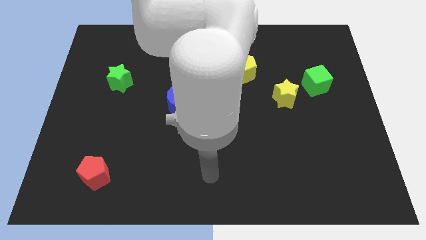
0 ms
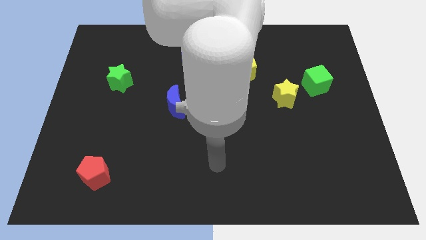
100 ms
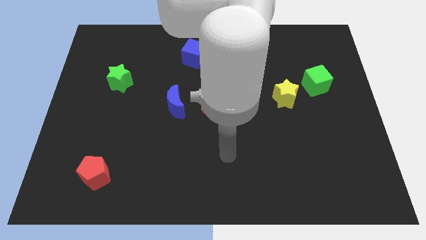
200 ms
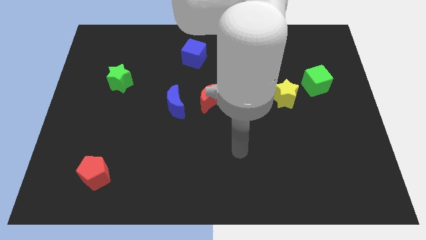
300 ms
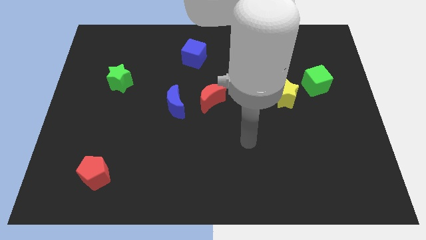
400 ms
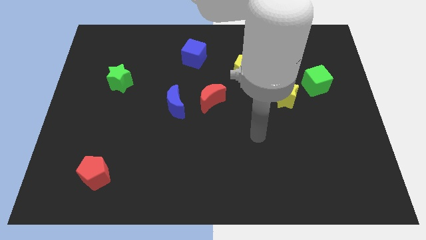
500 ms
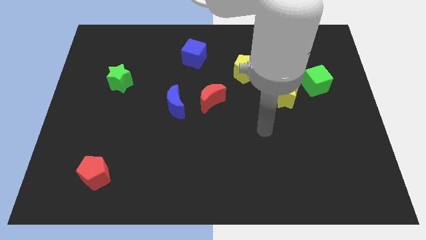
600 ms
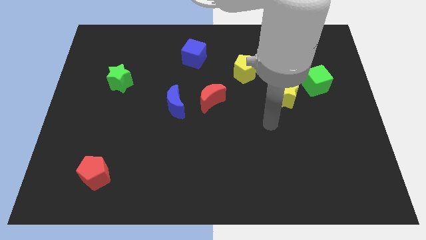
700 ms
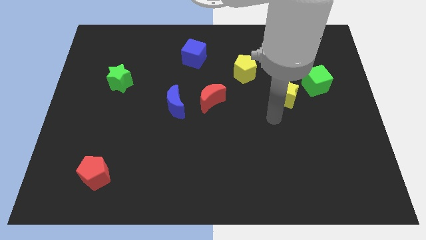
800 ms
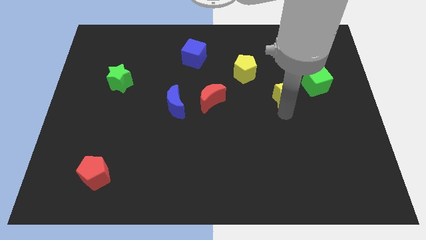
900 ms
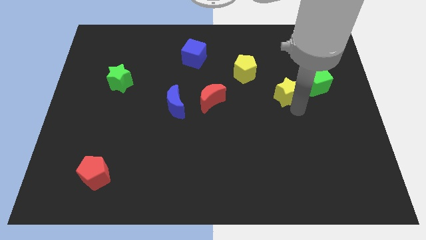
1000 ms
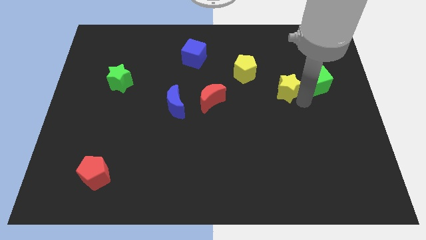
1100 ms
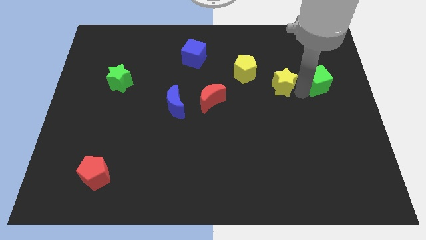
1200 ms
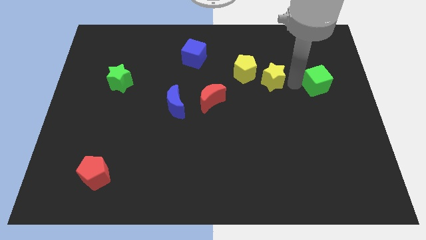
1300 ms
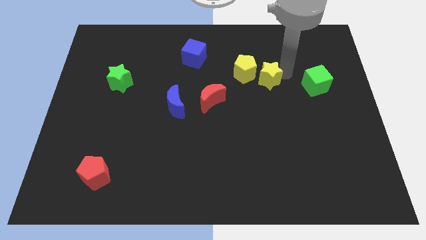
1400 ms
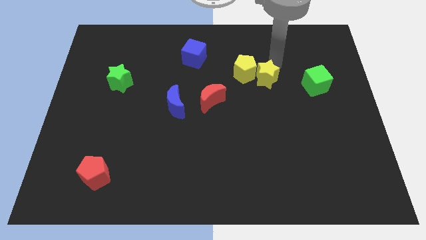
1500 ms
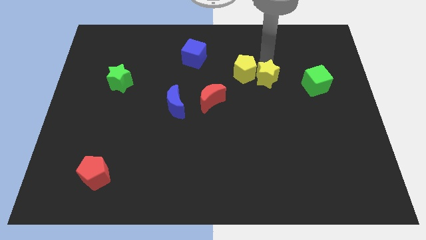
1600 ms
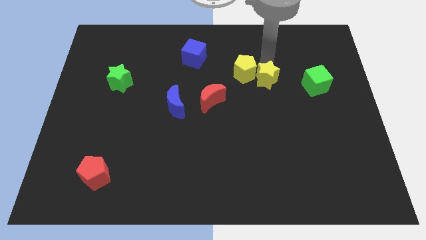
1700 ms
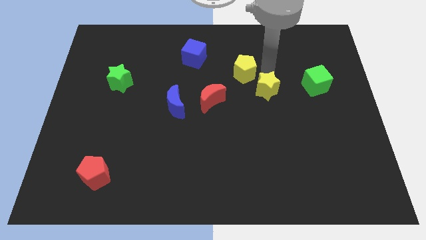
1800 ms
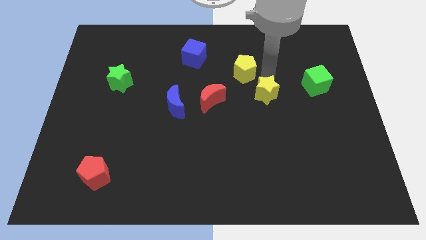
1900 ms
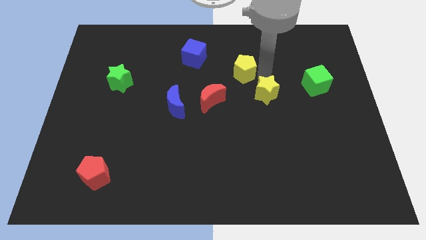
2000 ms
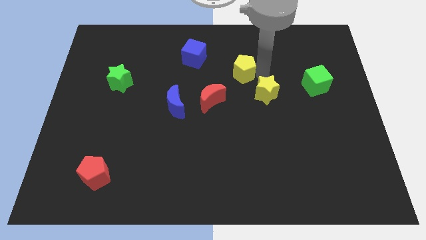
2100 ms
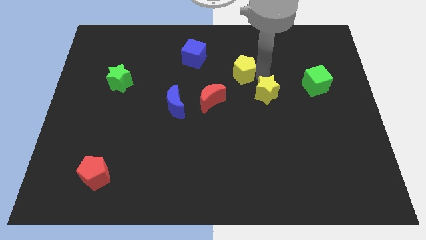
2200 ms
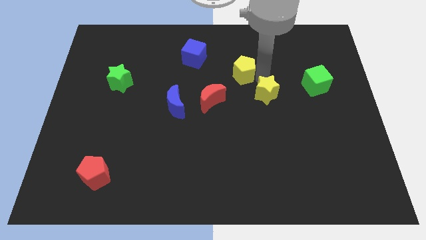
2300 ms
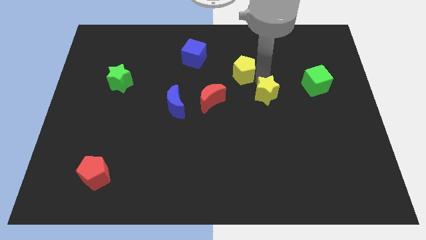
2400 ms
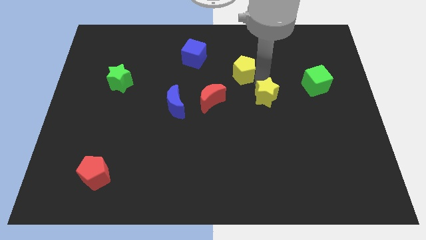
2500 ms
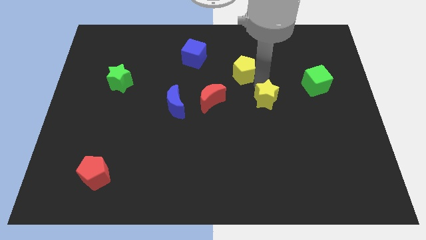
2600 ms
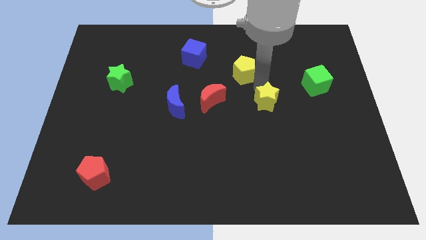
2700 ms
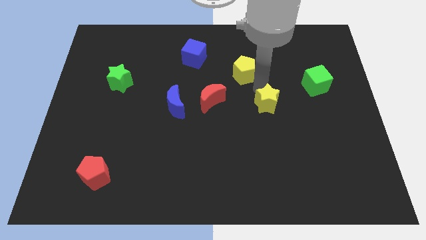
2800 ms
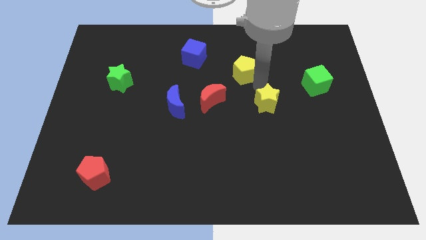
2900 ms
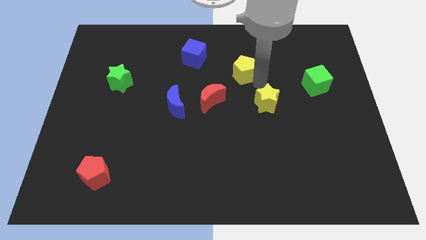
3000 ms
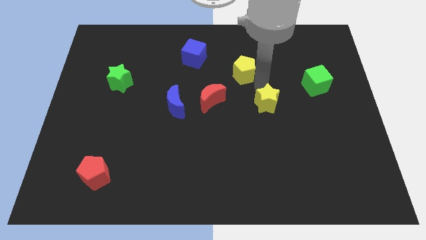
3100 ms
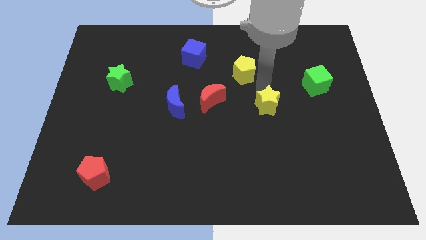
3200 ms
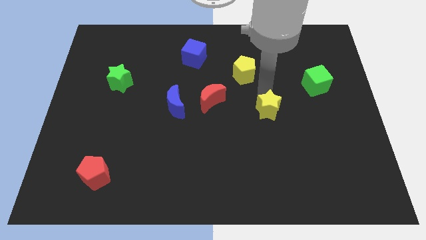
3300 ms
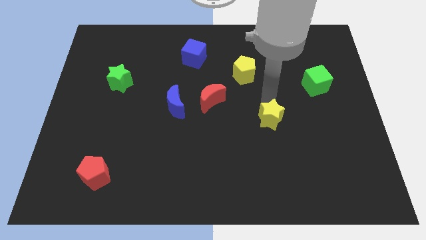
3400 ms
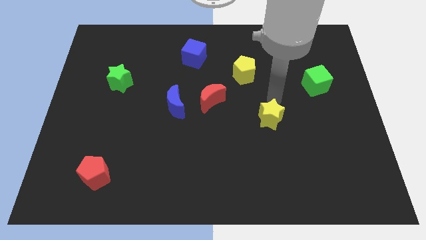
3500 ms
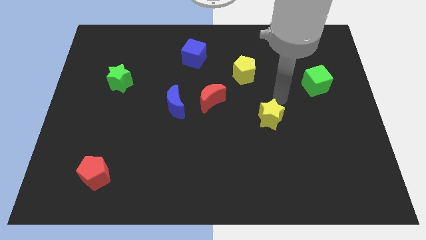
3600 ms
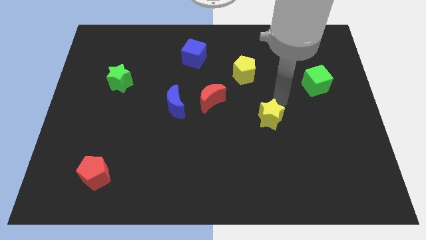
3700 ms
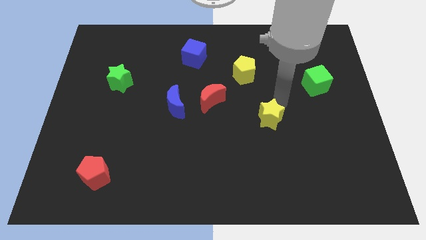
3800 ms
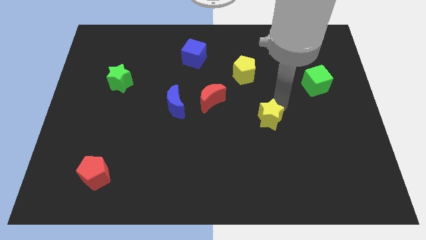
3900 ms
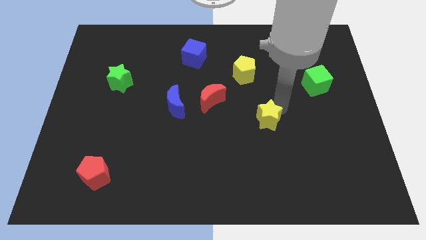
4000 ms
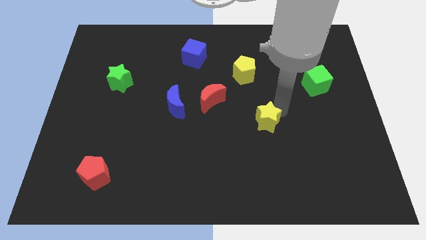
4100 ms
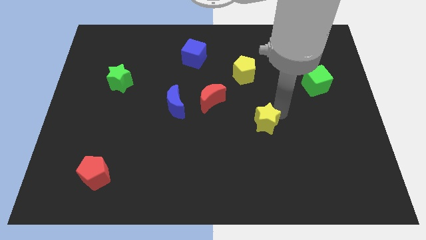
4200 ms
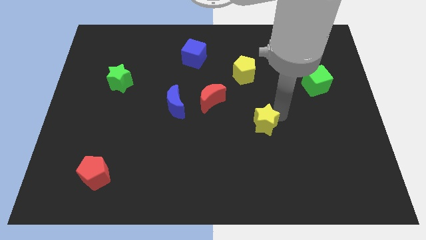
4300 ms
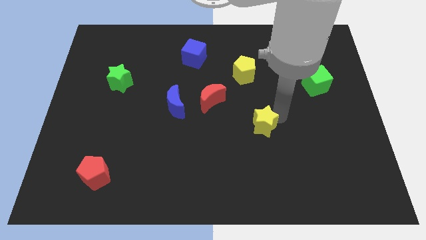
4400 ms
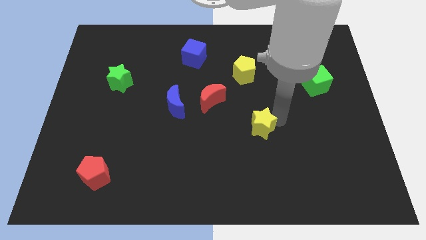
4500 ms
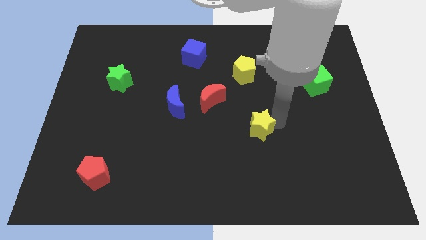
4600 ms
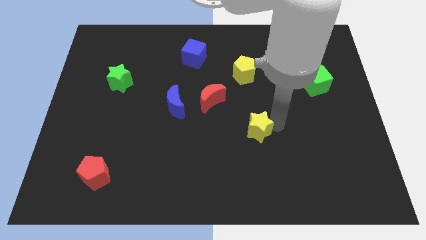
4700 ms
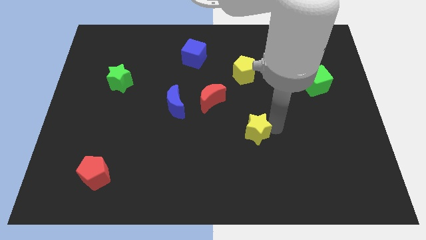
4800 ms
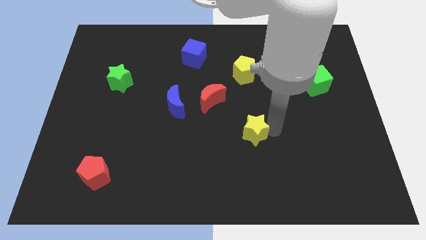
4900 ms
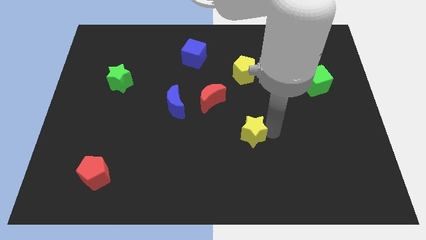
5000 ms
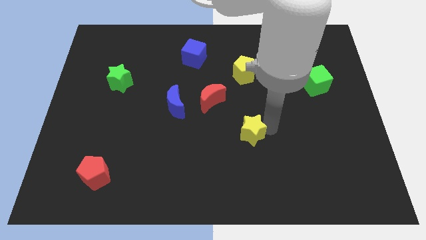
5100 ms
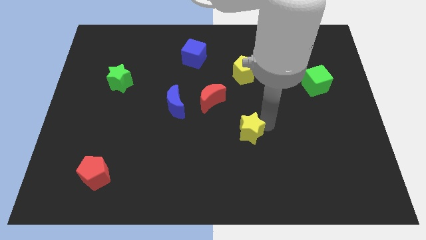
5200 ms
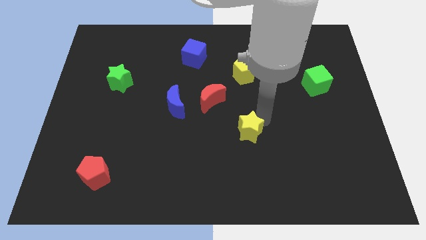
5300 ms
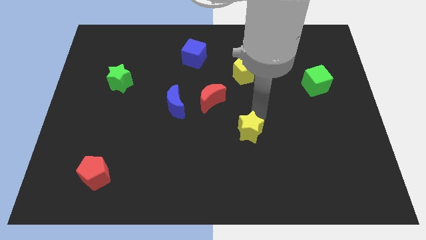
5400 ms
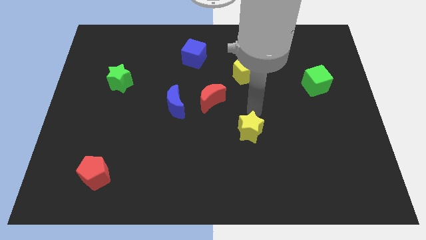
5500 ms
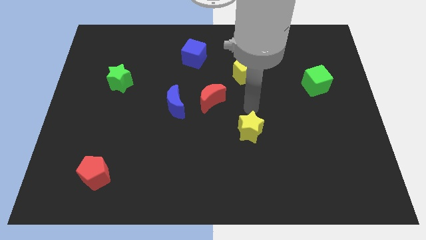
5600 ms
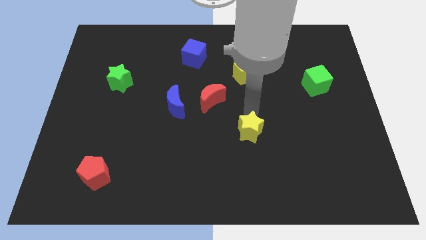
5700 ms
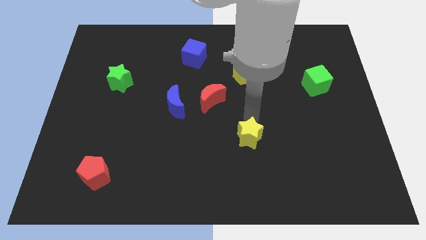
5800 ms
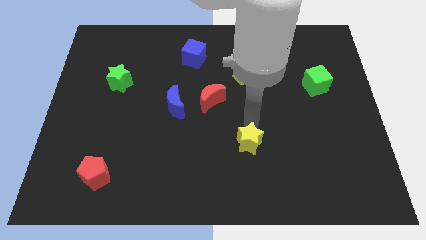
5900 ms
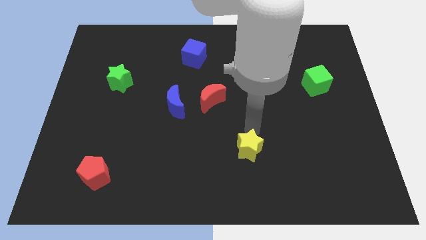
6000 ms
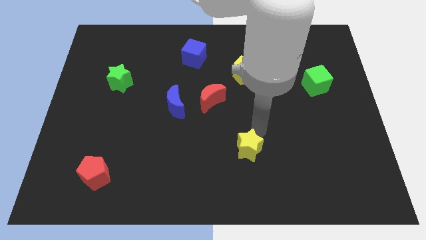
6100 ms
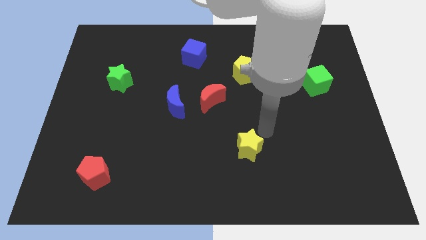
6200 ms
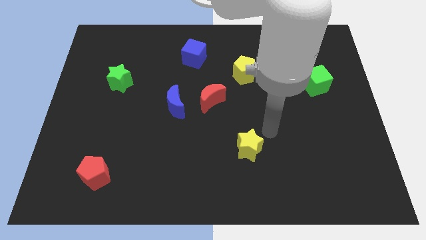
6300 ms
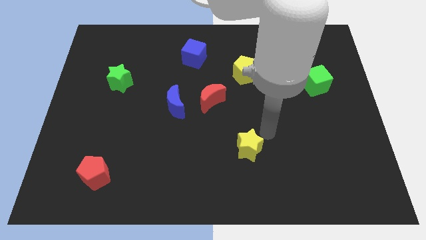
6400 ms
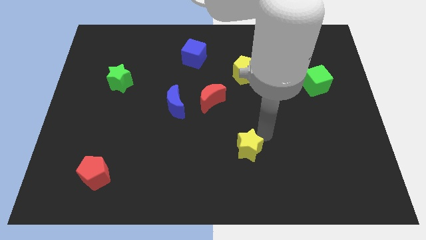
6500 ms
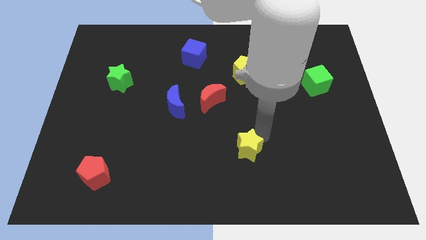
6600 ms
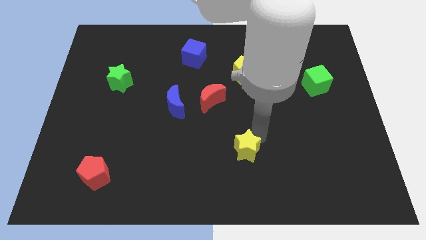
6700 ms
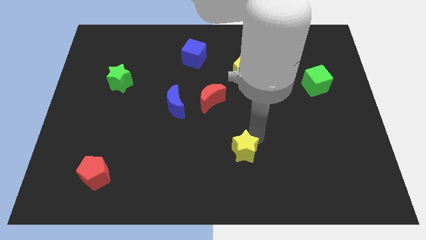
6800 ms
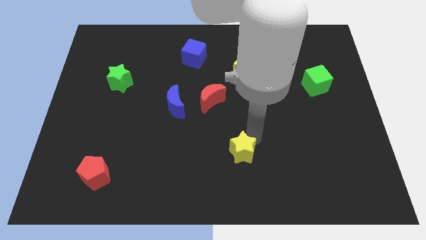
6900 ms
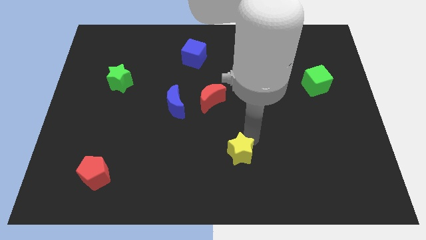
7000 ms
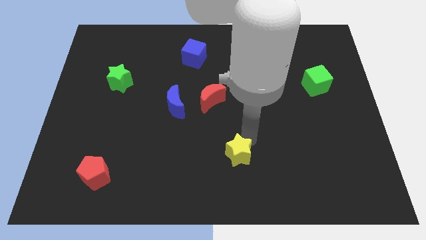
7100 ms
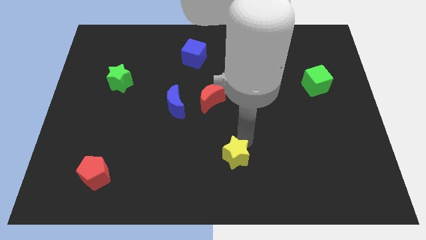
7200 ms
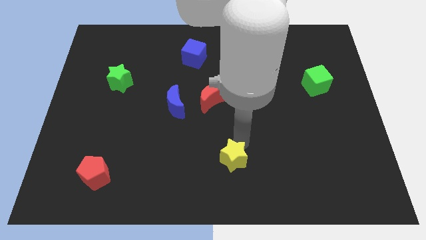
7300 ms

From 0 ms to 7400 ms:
move the yellow star to the bottom side
